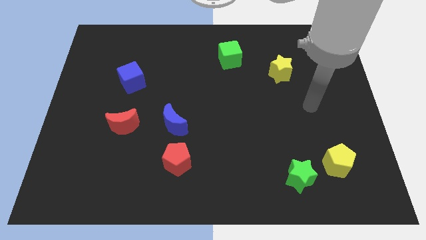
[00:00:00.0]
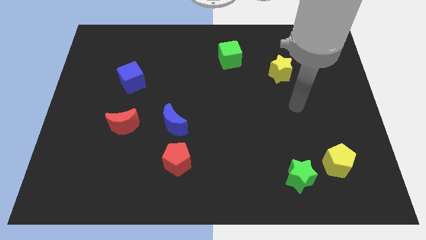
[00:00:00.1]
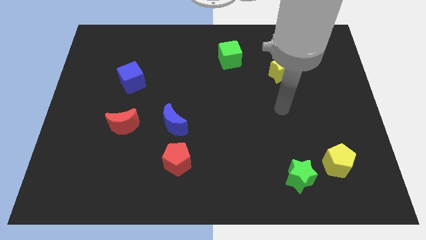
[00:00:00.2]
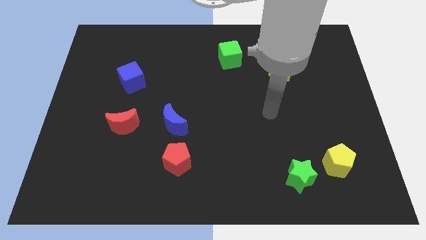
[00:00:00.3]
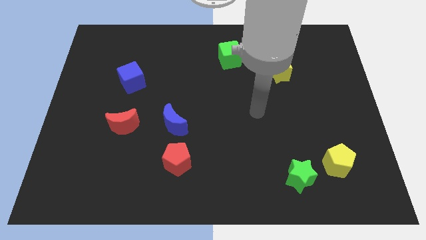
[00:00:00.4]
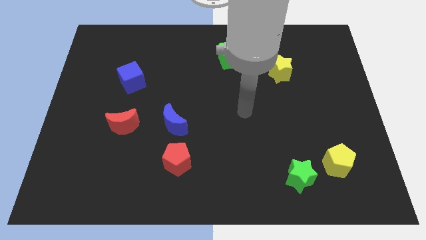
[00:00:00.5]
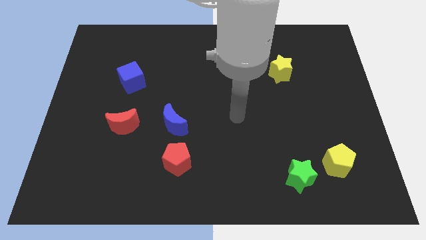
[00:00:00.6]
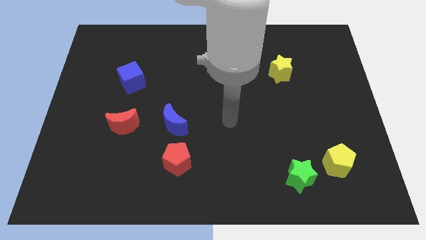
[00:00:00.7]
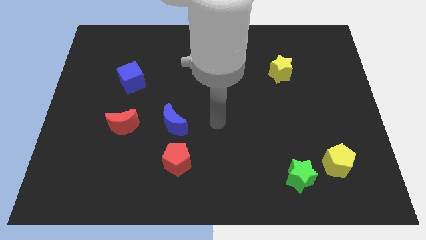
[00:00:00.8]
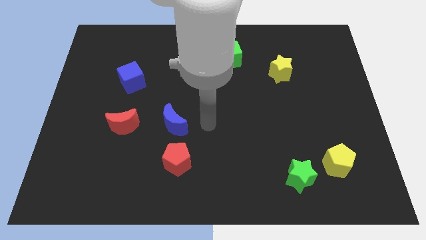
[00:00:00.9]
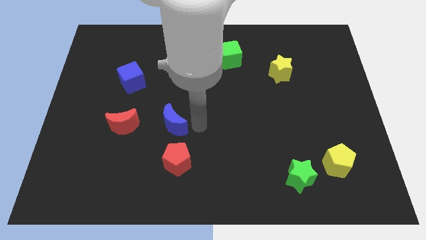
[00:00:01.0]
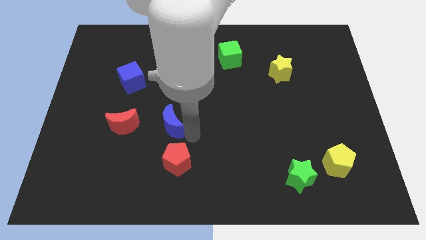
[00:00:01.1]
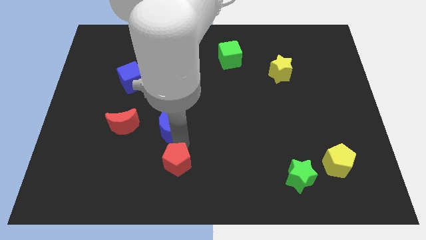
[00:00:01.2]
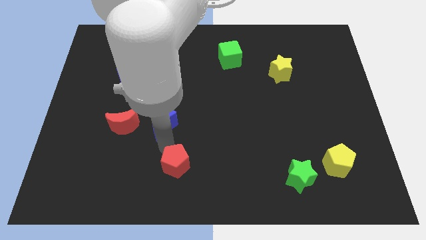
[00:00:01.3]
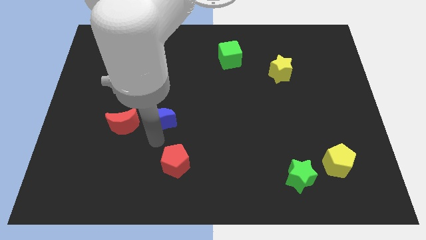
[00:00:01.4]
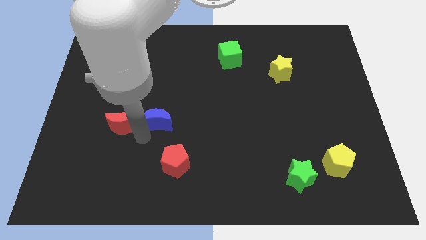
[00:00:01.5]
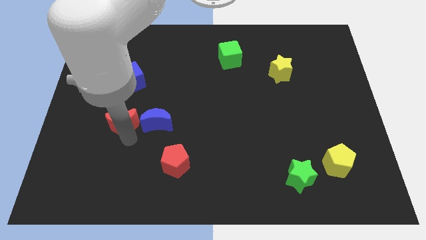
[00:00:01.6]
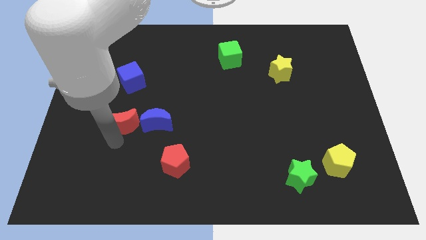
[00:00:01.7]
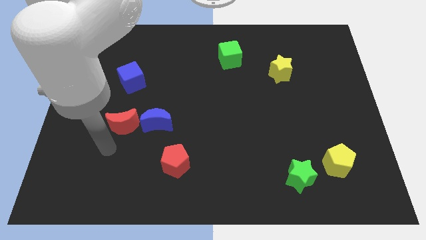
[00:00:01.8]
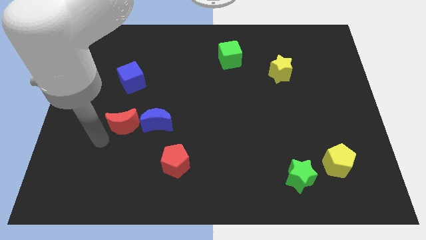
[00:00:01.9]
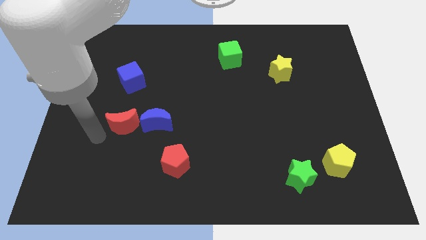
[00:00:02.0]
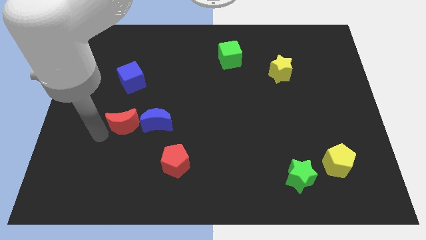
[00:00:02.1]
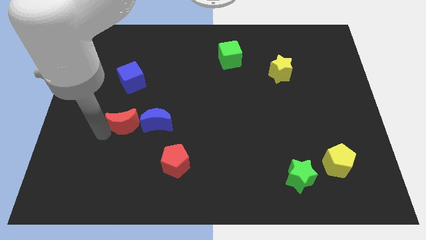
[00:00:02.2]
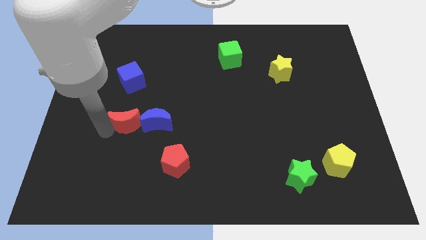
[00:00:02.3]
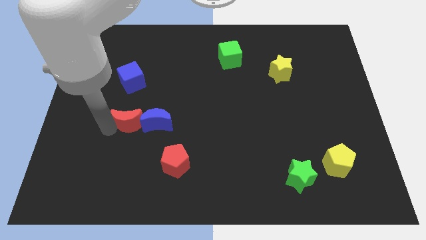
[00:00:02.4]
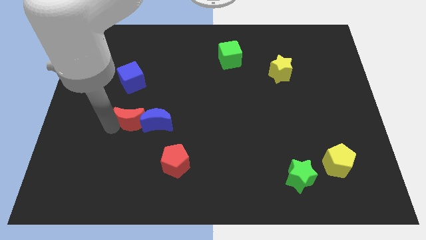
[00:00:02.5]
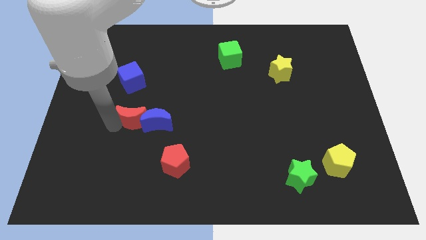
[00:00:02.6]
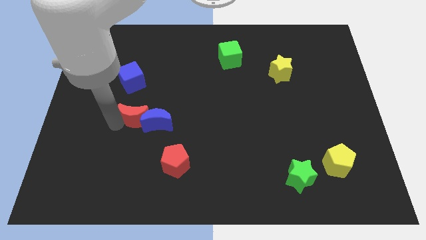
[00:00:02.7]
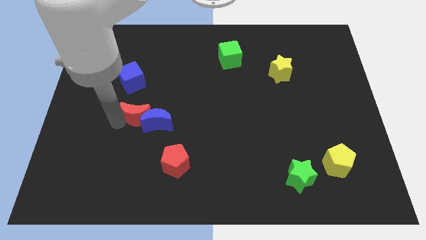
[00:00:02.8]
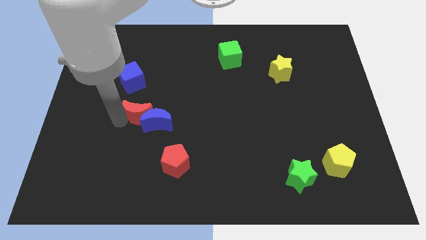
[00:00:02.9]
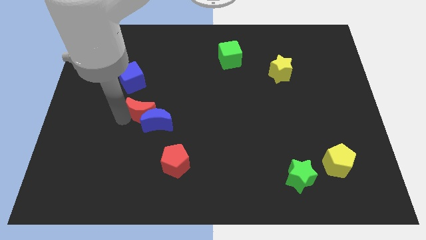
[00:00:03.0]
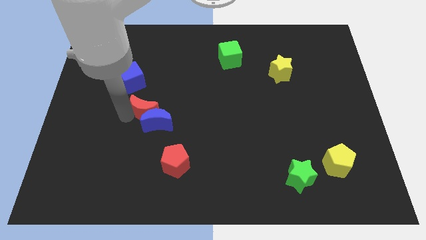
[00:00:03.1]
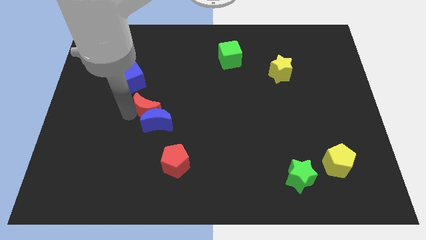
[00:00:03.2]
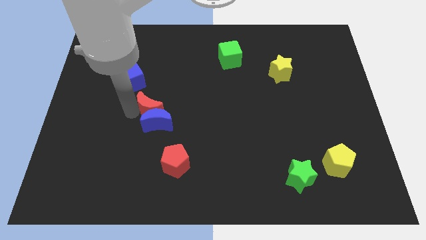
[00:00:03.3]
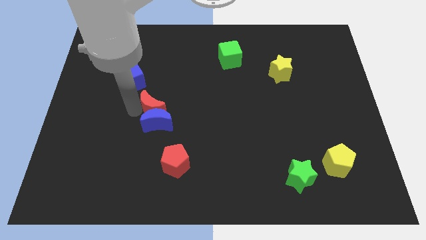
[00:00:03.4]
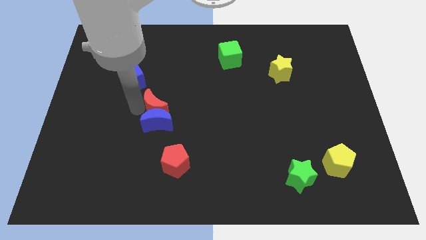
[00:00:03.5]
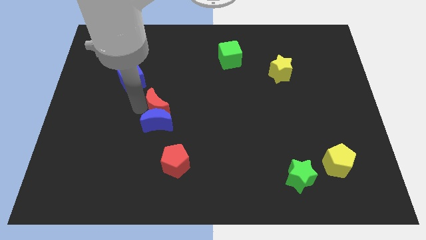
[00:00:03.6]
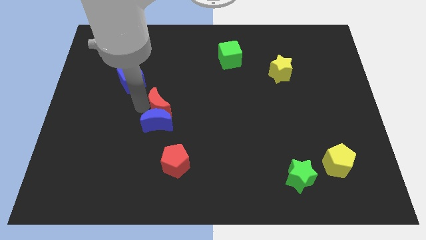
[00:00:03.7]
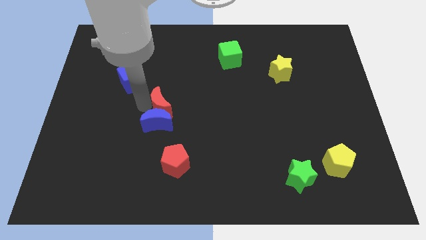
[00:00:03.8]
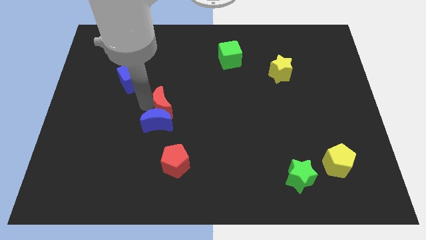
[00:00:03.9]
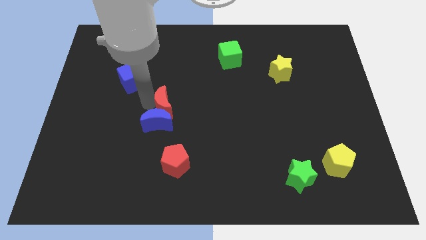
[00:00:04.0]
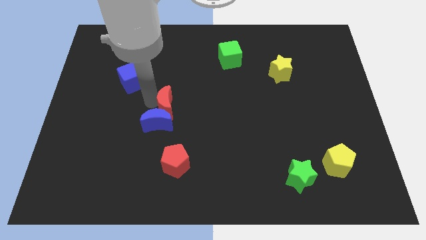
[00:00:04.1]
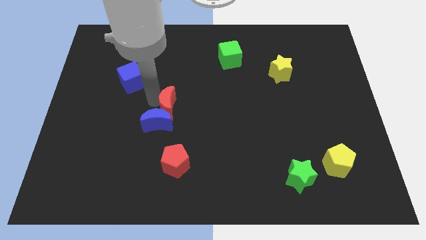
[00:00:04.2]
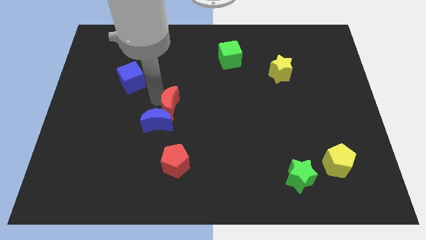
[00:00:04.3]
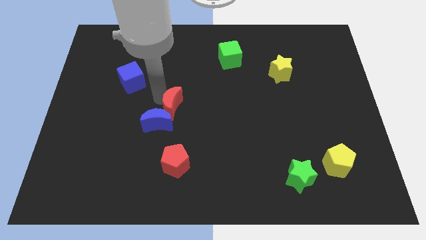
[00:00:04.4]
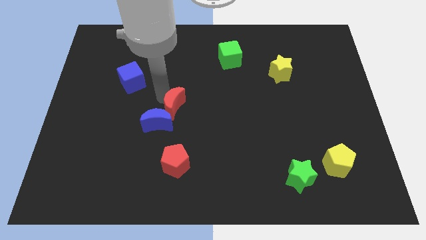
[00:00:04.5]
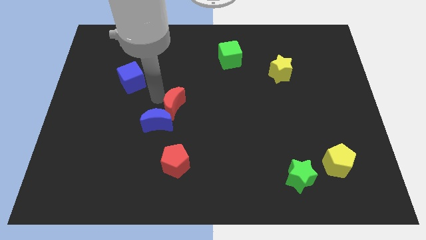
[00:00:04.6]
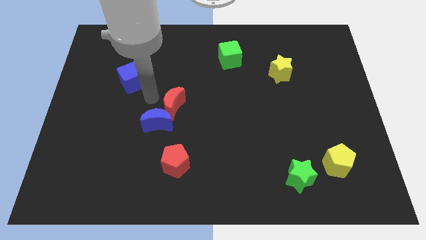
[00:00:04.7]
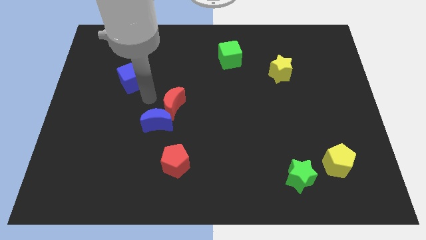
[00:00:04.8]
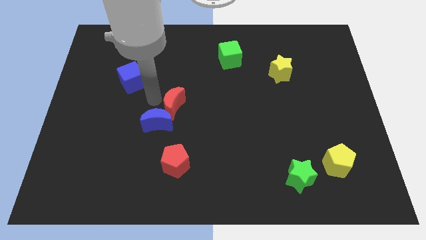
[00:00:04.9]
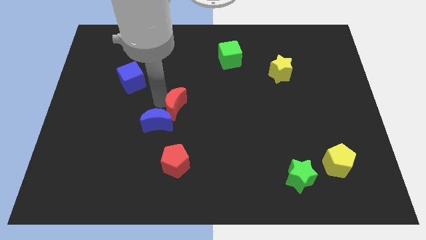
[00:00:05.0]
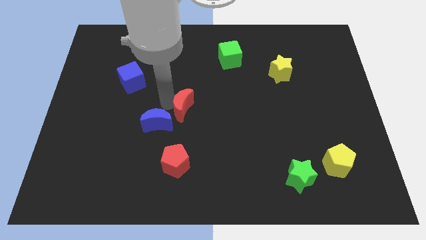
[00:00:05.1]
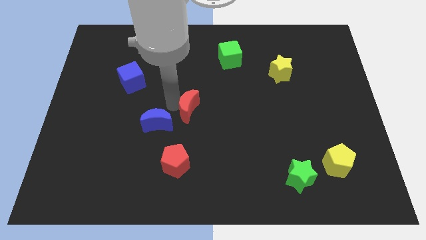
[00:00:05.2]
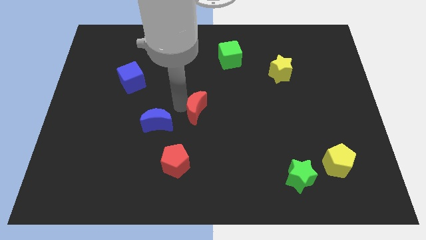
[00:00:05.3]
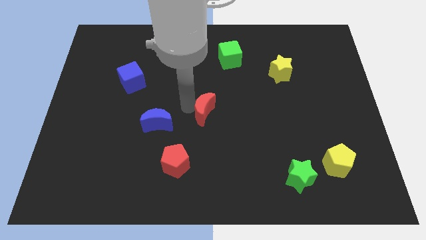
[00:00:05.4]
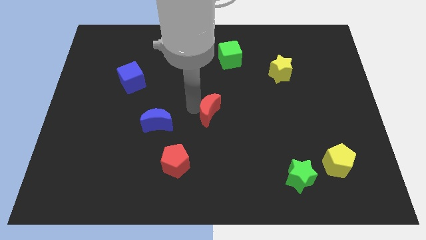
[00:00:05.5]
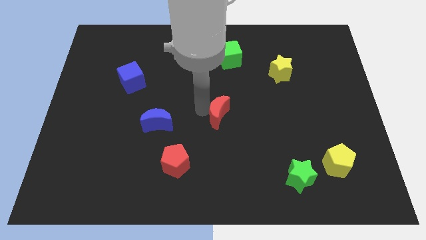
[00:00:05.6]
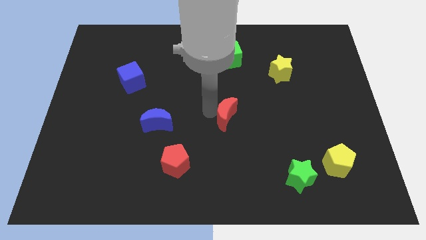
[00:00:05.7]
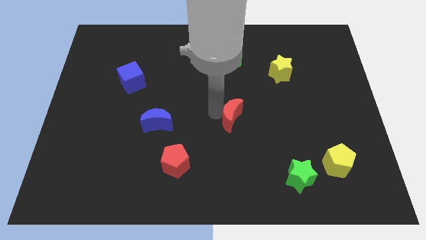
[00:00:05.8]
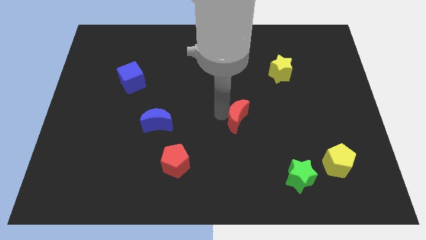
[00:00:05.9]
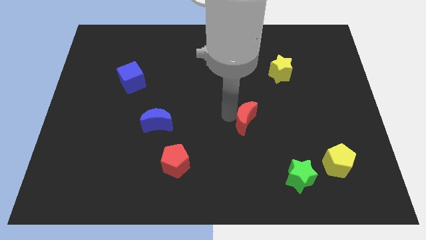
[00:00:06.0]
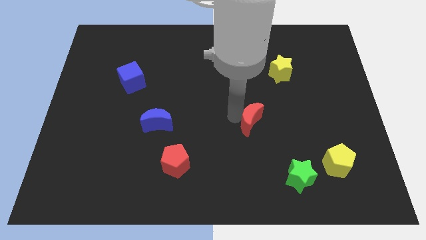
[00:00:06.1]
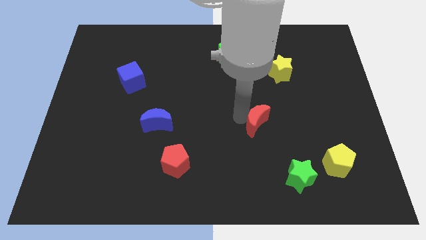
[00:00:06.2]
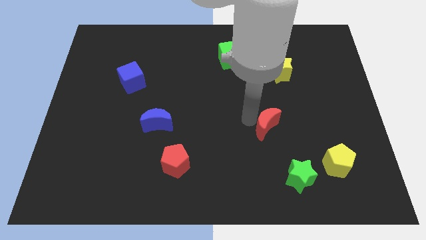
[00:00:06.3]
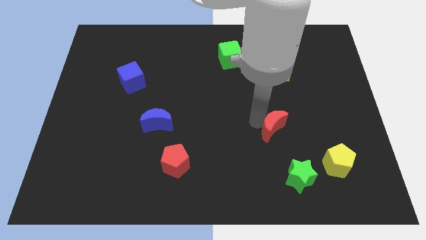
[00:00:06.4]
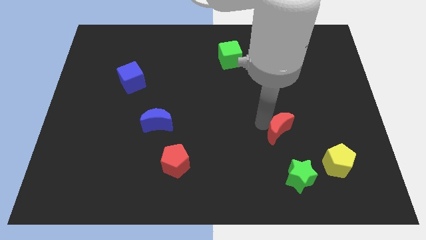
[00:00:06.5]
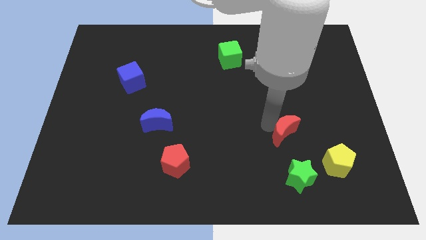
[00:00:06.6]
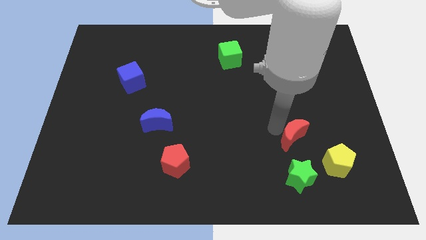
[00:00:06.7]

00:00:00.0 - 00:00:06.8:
put the red moon diagonally up and to the left of the yellow pentagon

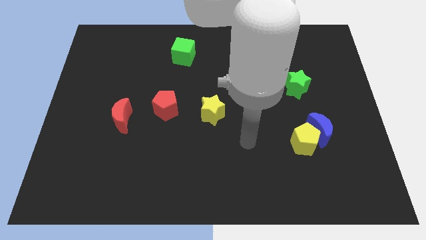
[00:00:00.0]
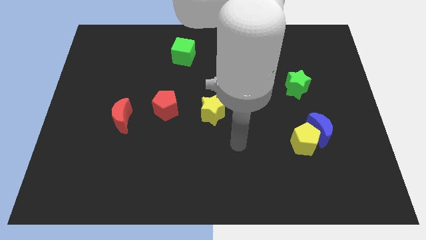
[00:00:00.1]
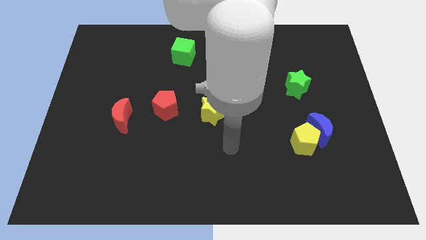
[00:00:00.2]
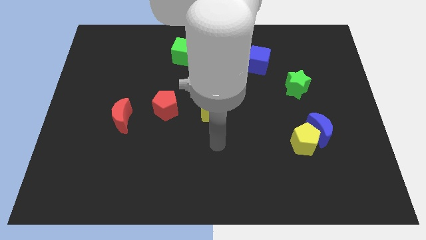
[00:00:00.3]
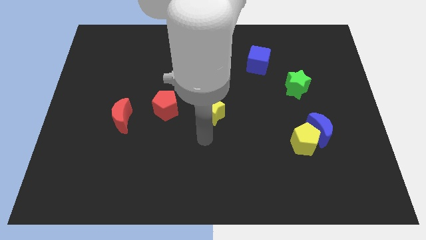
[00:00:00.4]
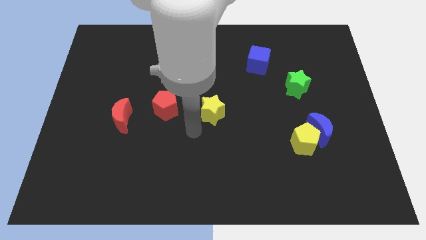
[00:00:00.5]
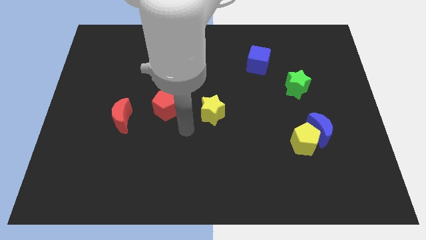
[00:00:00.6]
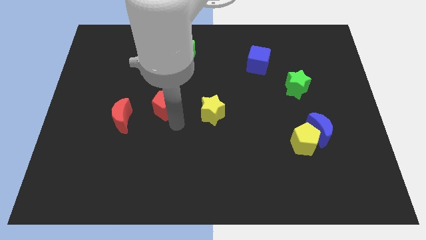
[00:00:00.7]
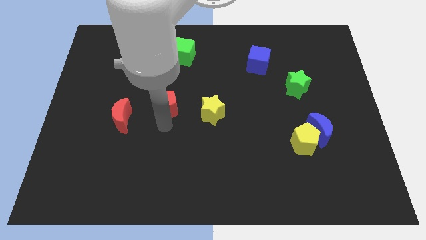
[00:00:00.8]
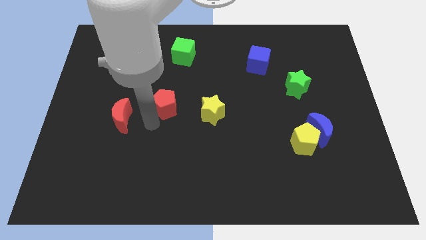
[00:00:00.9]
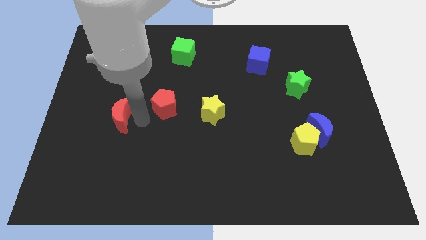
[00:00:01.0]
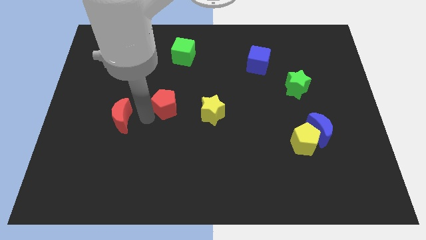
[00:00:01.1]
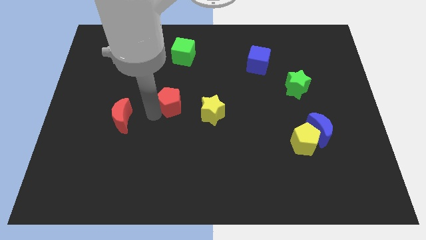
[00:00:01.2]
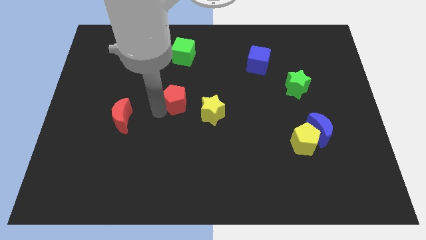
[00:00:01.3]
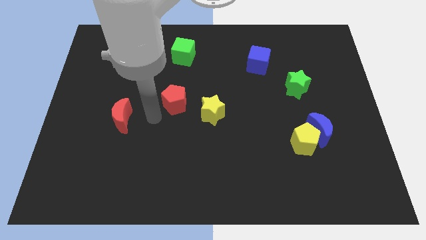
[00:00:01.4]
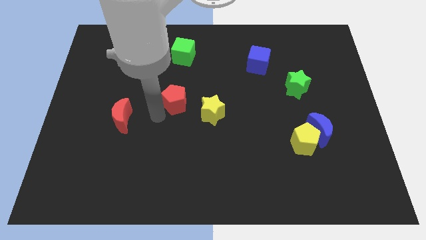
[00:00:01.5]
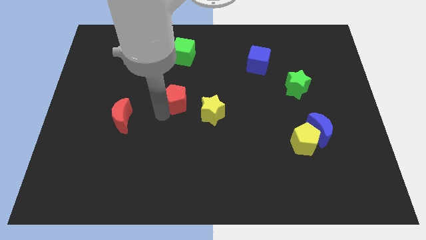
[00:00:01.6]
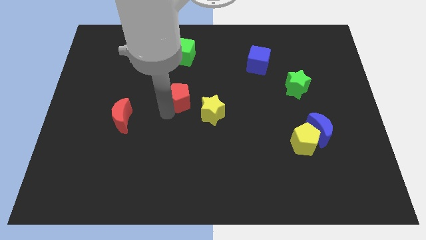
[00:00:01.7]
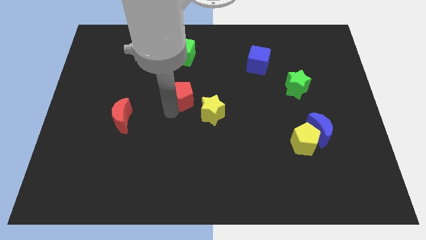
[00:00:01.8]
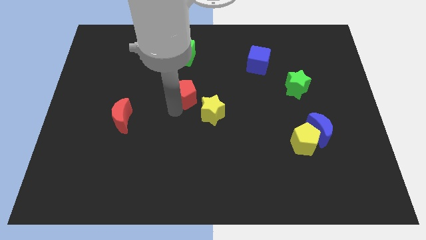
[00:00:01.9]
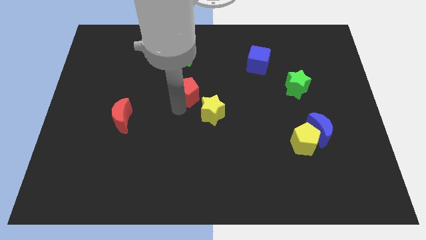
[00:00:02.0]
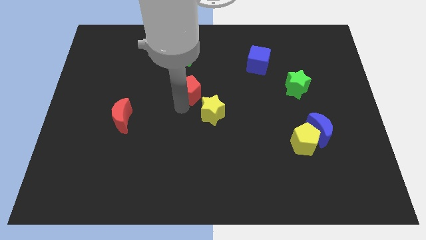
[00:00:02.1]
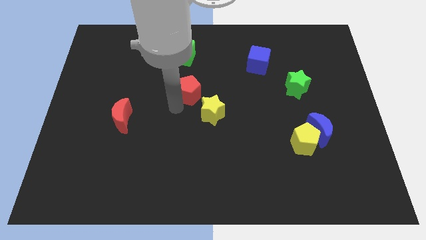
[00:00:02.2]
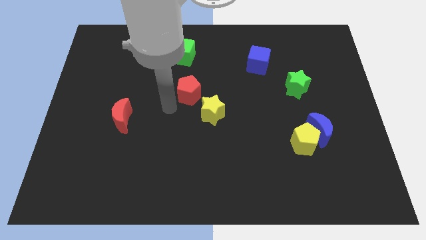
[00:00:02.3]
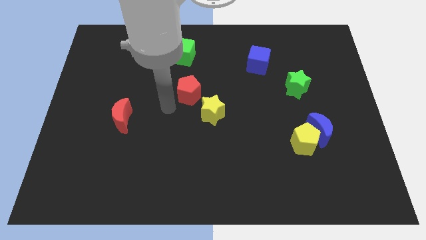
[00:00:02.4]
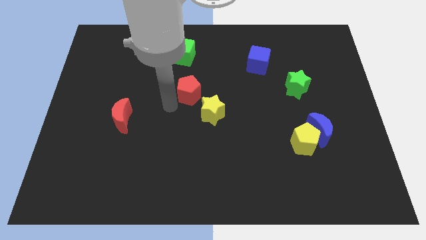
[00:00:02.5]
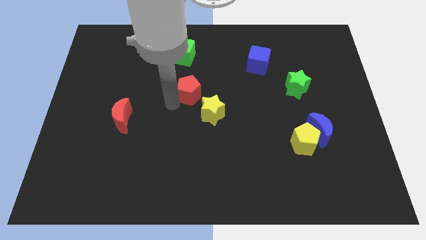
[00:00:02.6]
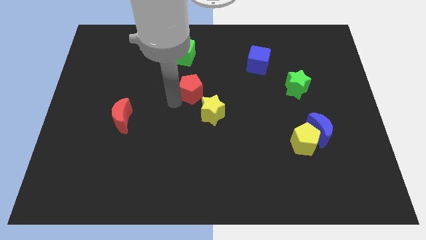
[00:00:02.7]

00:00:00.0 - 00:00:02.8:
slide the red pentagon to the top side of the yellow star
